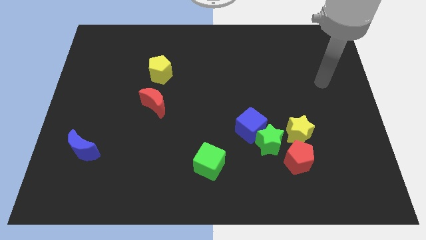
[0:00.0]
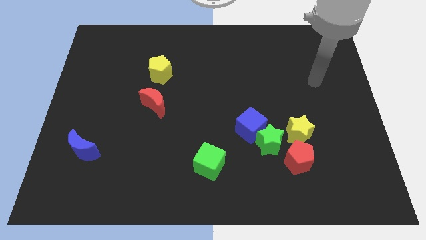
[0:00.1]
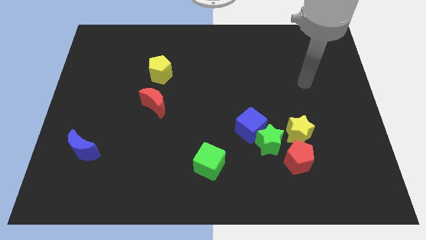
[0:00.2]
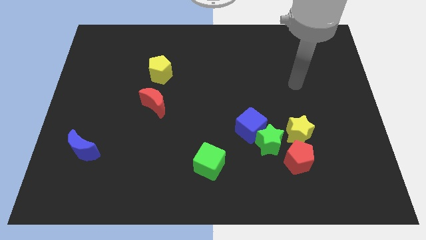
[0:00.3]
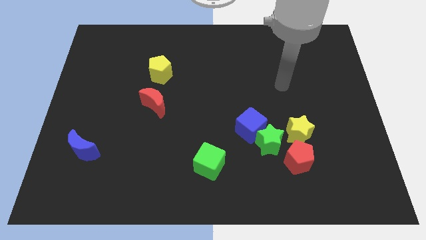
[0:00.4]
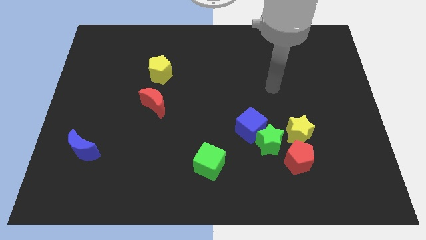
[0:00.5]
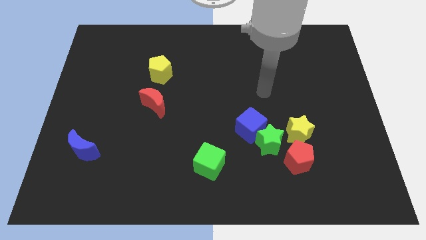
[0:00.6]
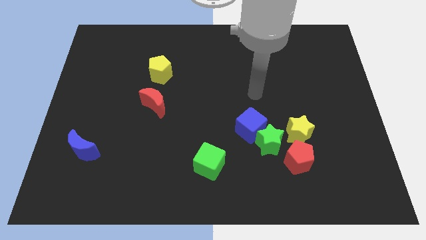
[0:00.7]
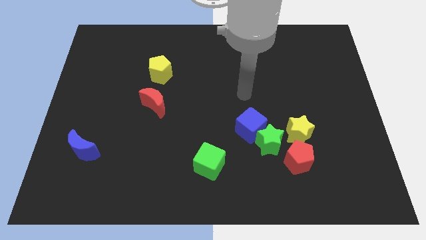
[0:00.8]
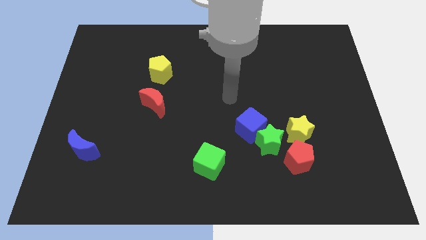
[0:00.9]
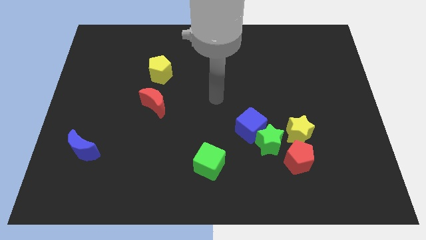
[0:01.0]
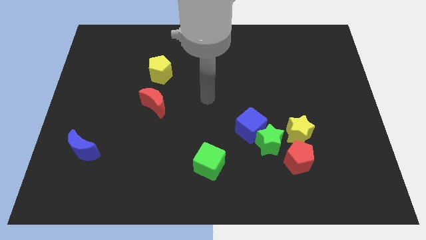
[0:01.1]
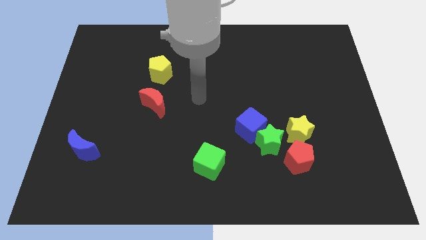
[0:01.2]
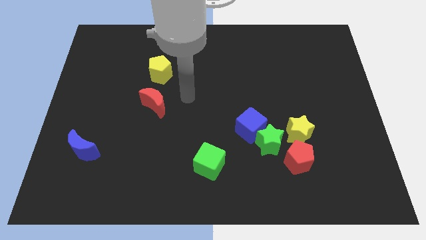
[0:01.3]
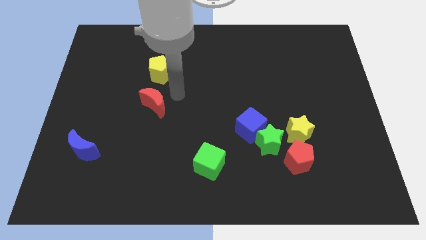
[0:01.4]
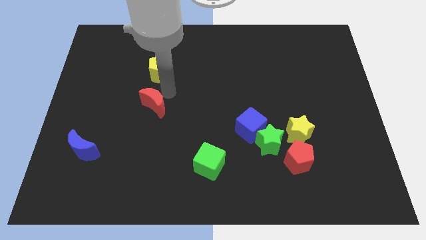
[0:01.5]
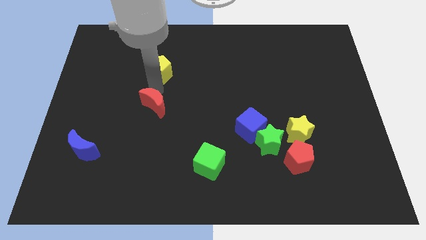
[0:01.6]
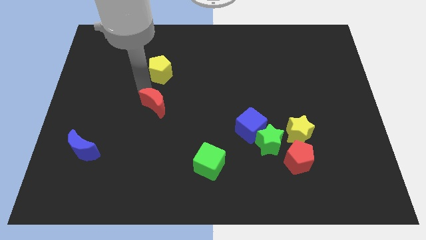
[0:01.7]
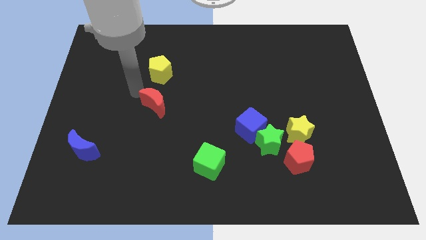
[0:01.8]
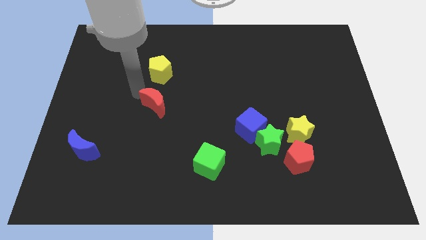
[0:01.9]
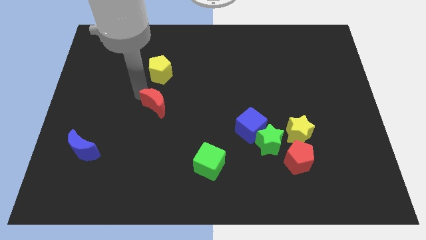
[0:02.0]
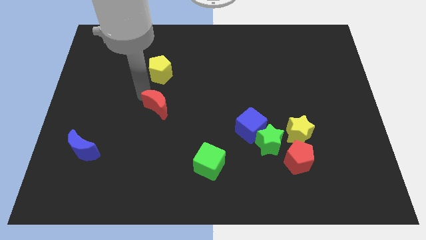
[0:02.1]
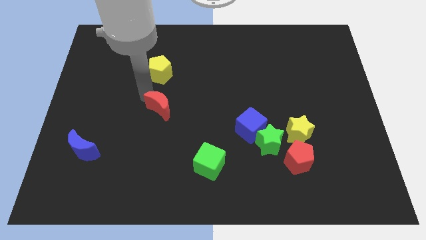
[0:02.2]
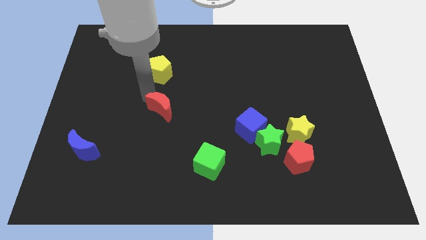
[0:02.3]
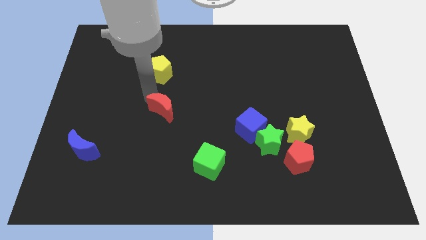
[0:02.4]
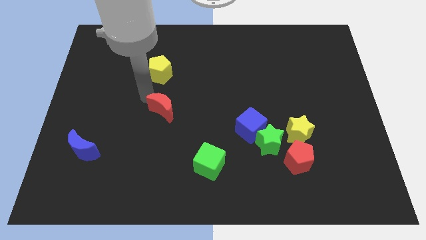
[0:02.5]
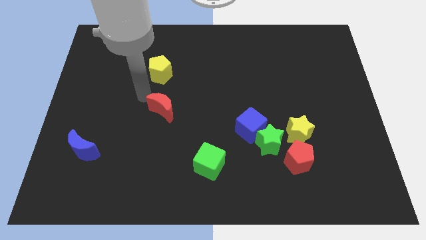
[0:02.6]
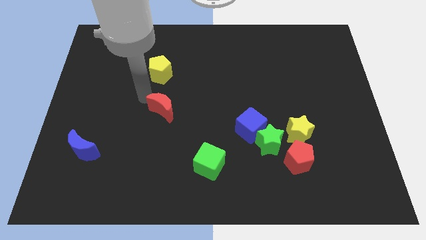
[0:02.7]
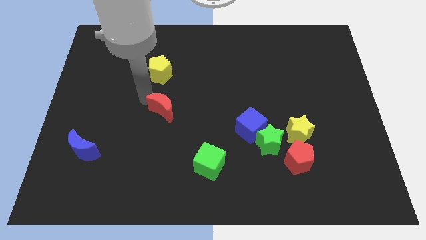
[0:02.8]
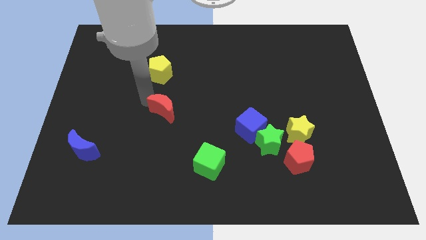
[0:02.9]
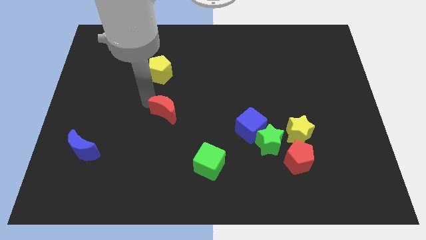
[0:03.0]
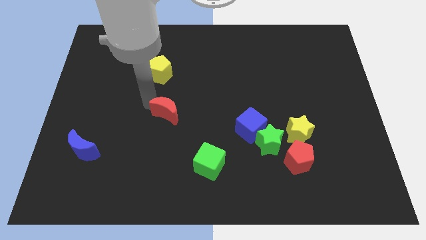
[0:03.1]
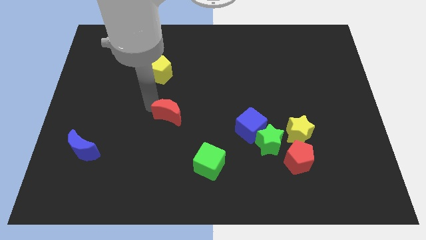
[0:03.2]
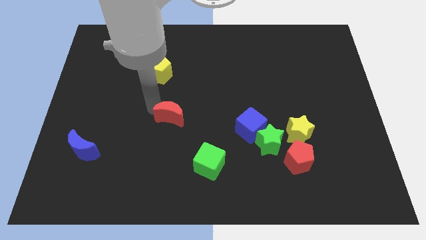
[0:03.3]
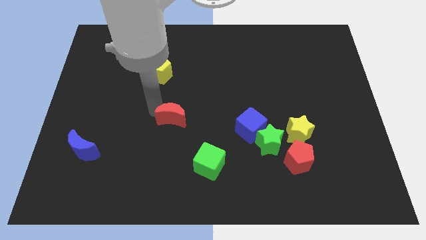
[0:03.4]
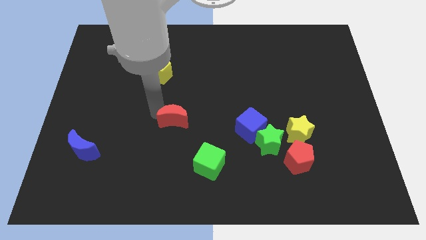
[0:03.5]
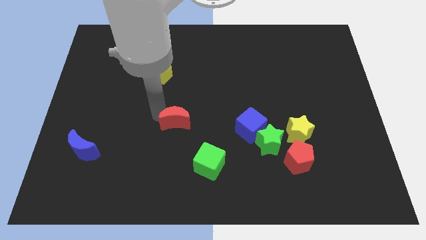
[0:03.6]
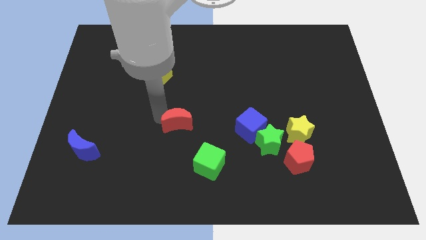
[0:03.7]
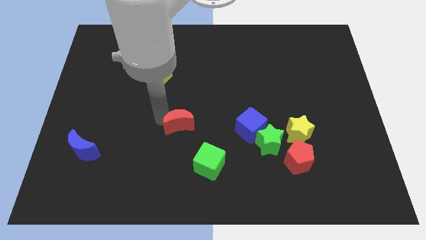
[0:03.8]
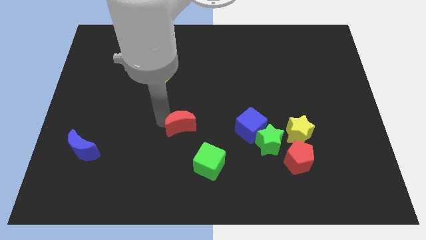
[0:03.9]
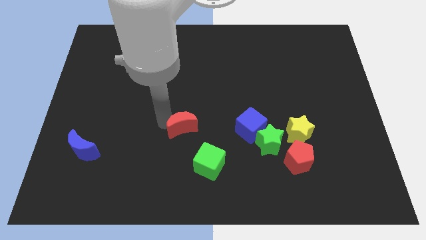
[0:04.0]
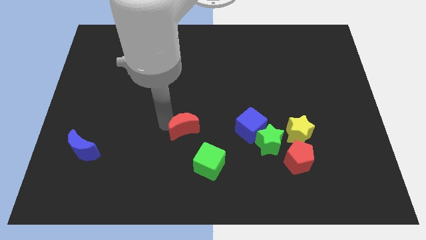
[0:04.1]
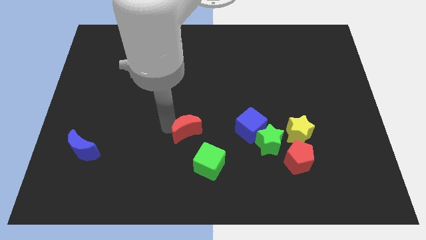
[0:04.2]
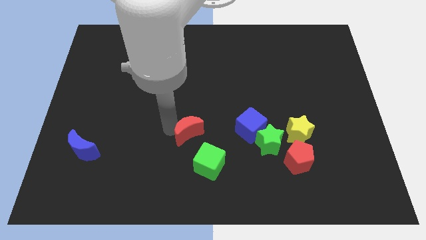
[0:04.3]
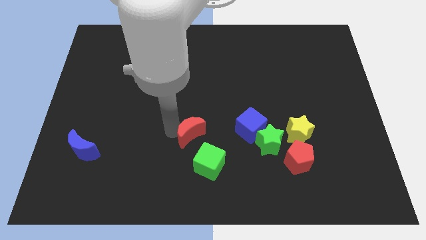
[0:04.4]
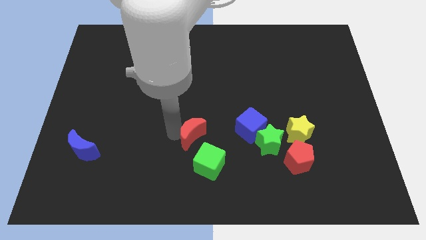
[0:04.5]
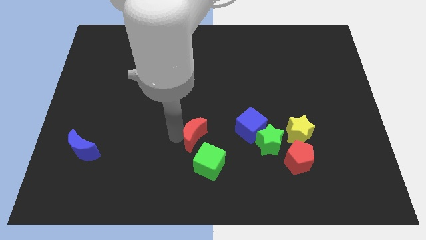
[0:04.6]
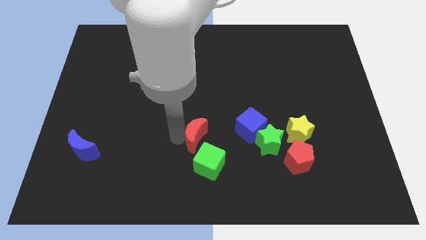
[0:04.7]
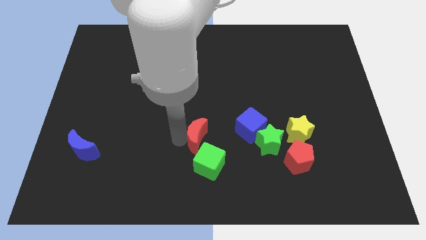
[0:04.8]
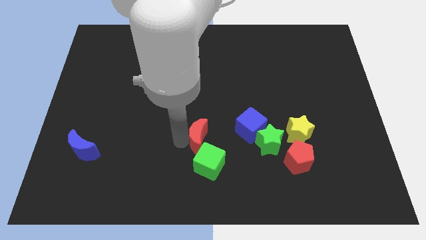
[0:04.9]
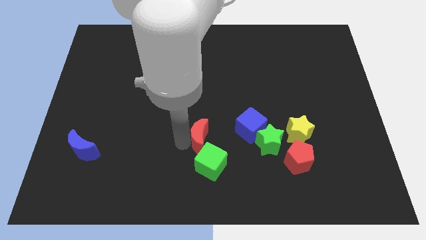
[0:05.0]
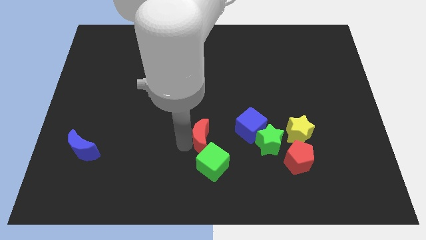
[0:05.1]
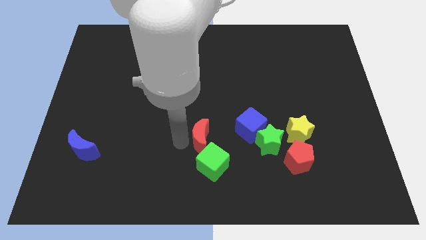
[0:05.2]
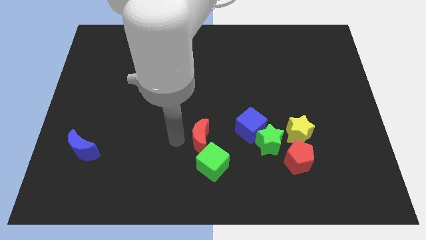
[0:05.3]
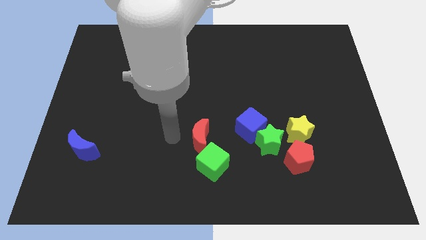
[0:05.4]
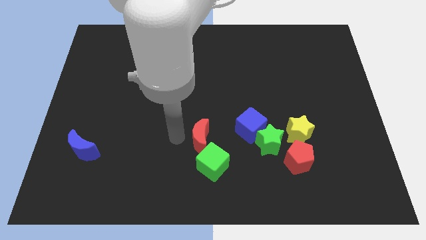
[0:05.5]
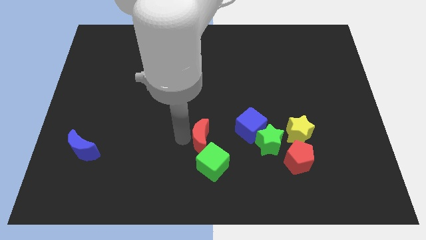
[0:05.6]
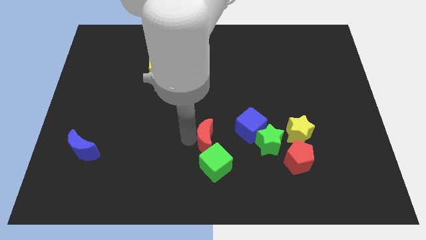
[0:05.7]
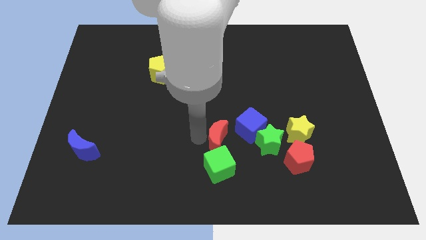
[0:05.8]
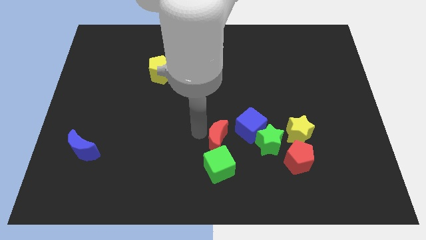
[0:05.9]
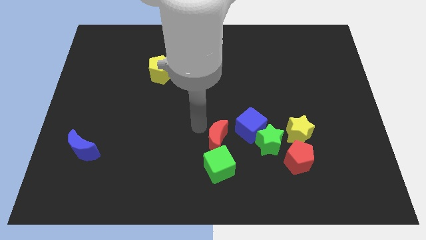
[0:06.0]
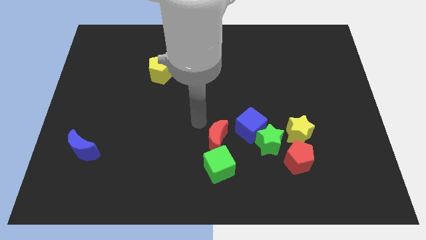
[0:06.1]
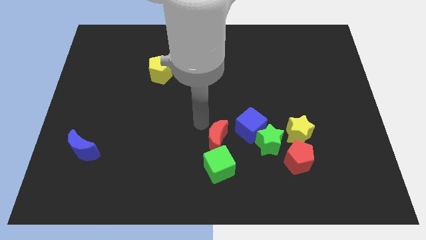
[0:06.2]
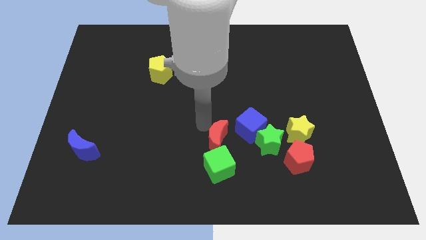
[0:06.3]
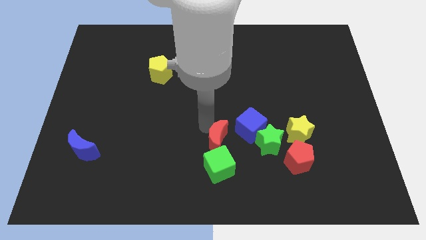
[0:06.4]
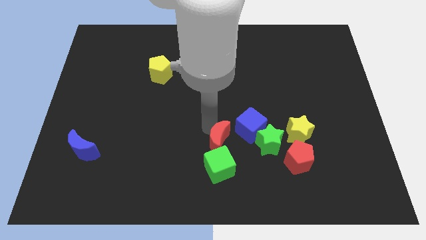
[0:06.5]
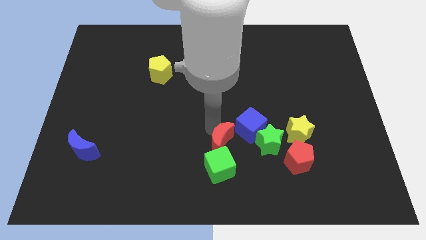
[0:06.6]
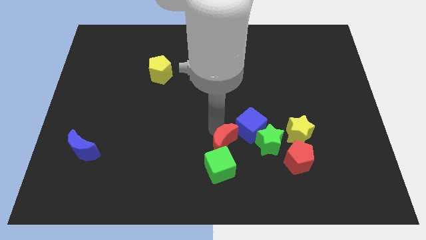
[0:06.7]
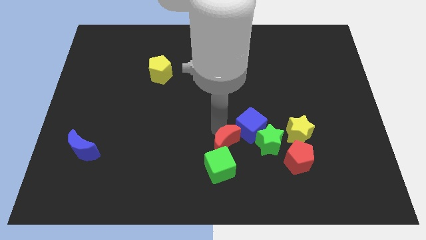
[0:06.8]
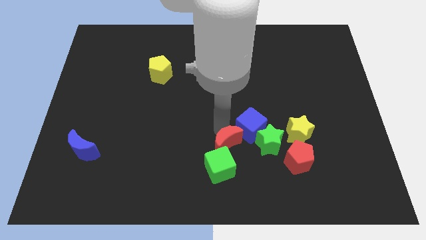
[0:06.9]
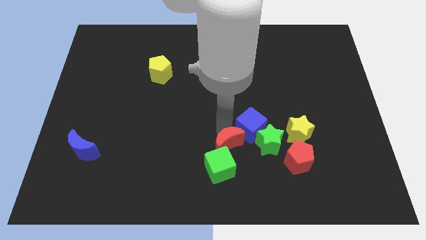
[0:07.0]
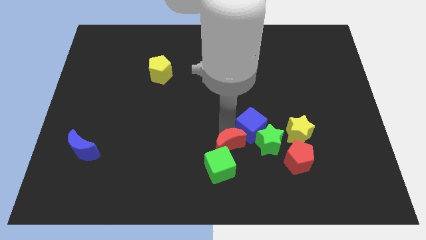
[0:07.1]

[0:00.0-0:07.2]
put the red moon to the bottom of the blue cube
